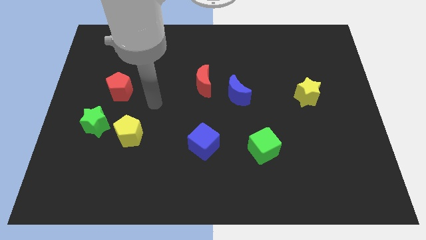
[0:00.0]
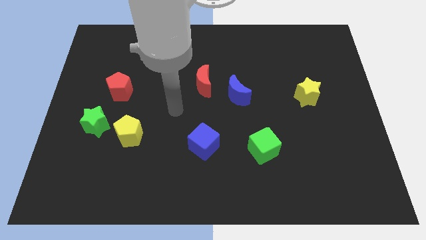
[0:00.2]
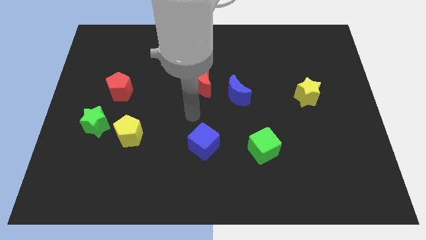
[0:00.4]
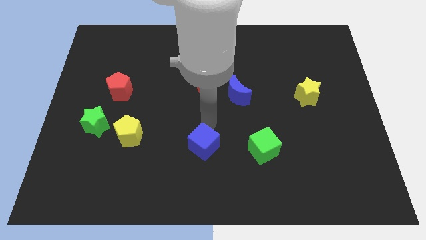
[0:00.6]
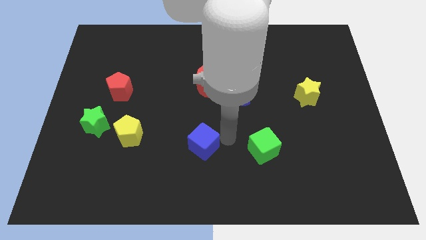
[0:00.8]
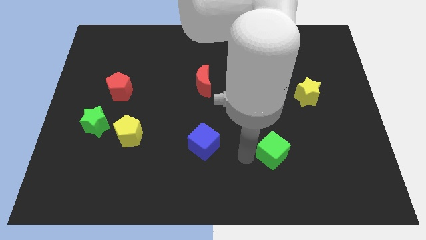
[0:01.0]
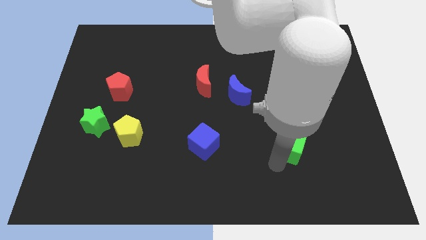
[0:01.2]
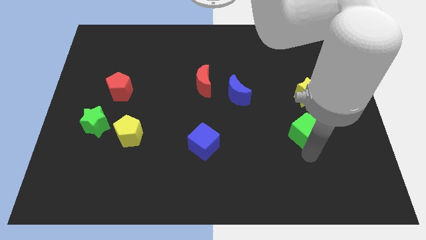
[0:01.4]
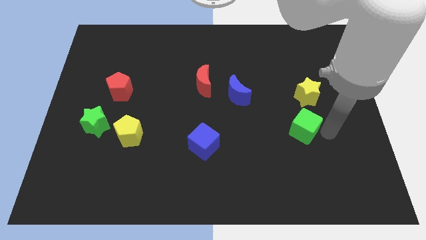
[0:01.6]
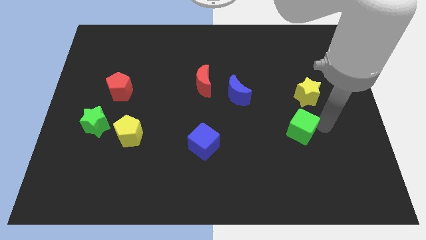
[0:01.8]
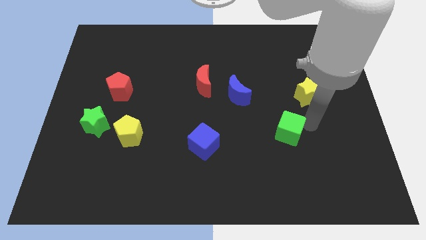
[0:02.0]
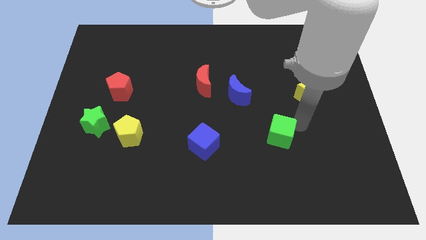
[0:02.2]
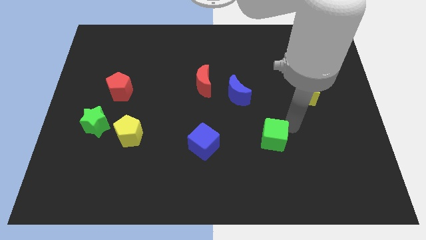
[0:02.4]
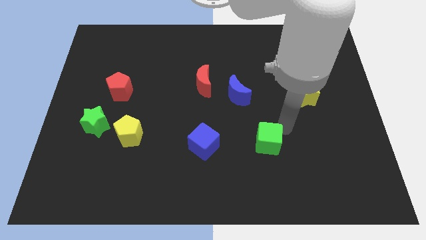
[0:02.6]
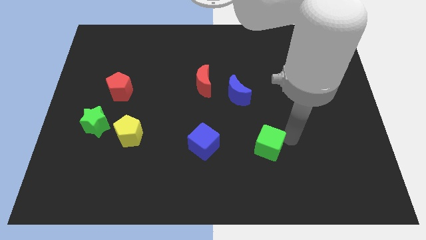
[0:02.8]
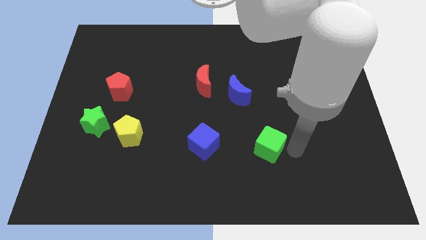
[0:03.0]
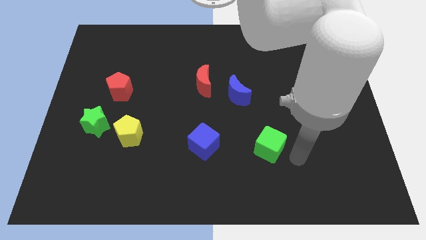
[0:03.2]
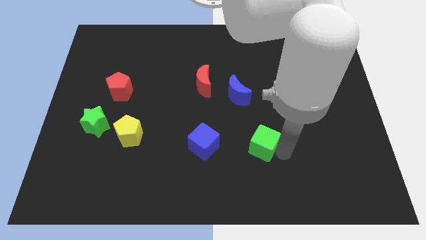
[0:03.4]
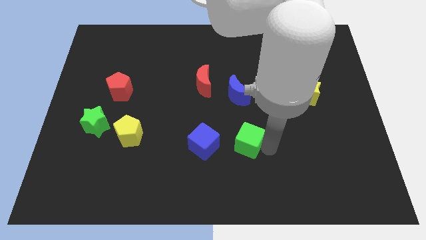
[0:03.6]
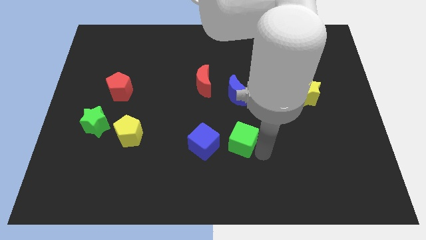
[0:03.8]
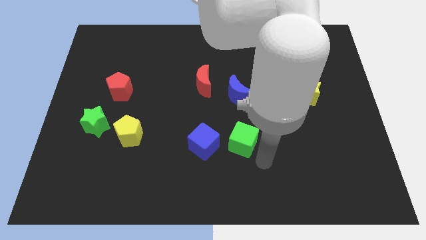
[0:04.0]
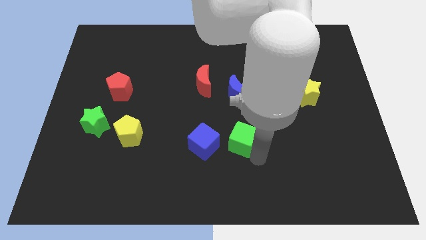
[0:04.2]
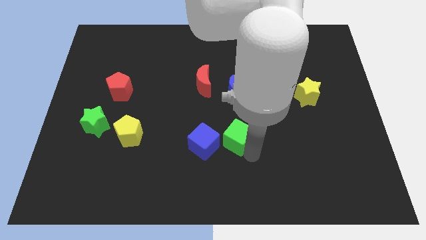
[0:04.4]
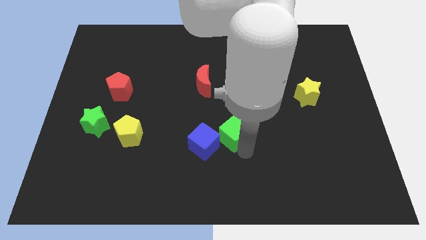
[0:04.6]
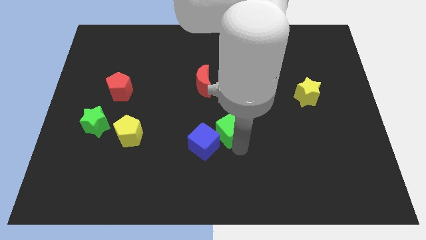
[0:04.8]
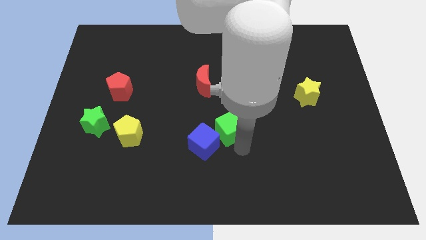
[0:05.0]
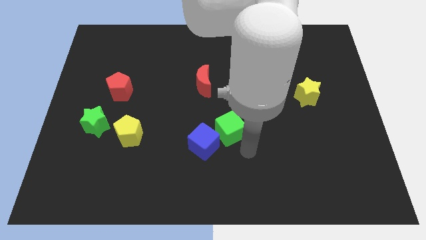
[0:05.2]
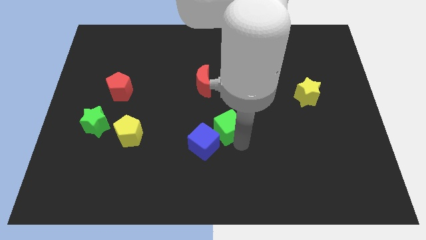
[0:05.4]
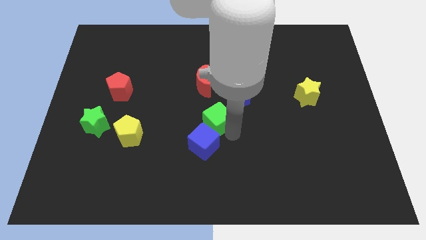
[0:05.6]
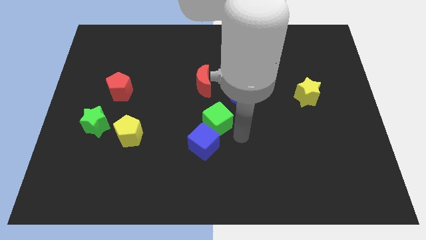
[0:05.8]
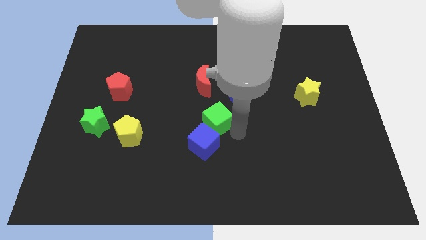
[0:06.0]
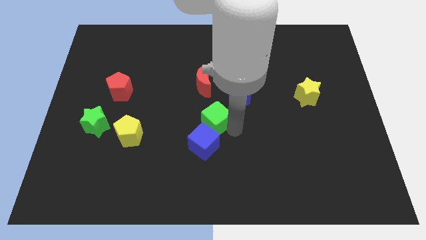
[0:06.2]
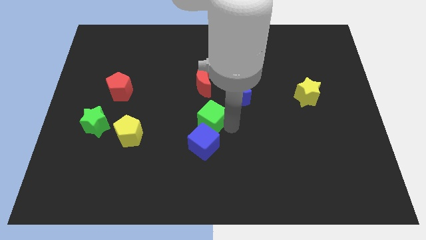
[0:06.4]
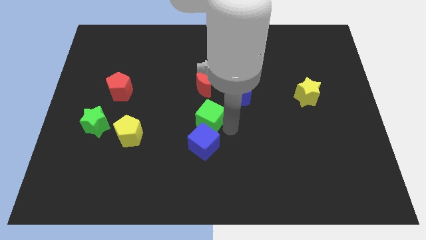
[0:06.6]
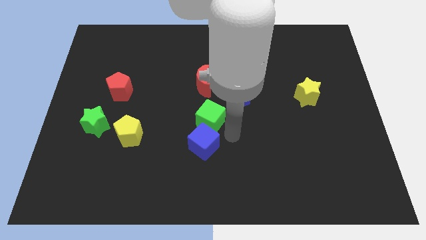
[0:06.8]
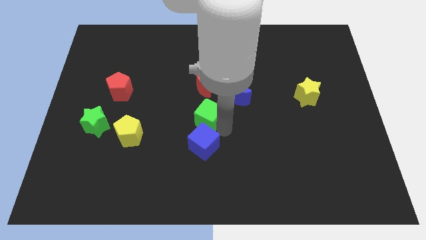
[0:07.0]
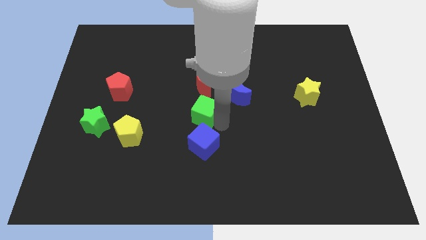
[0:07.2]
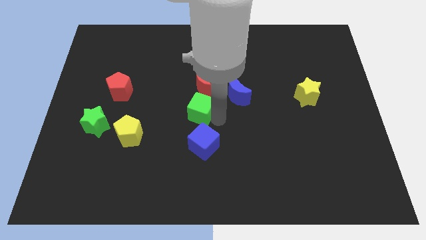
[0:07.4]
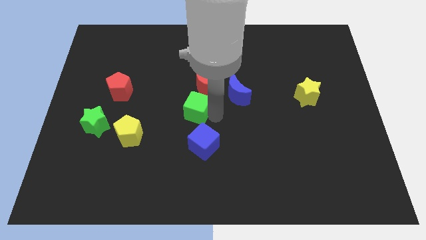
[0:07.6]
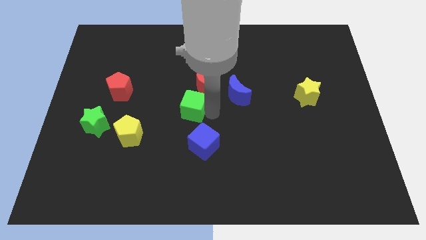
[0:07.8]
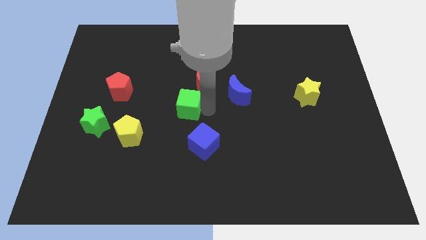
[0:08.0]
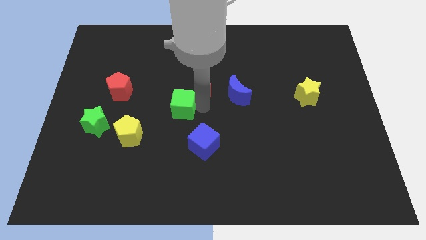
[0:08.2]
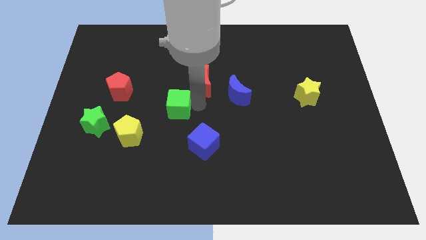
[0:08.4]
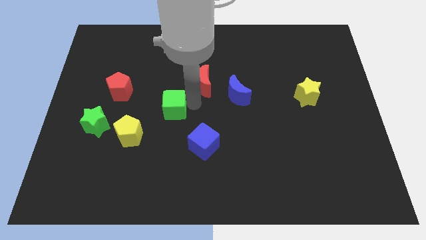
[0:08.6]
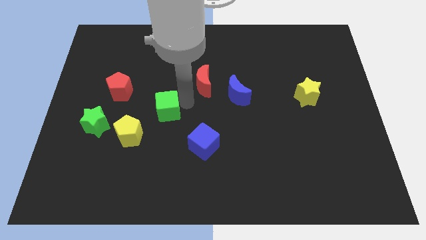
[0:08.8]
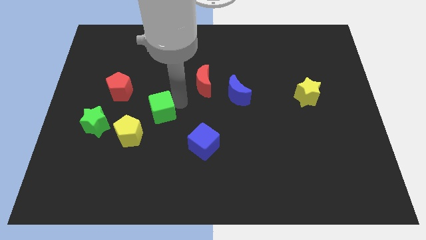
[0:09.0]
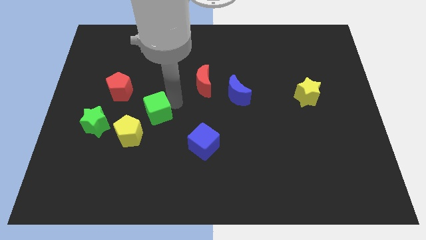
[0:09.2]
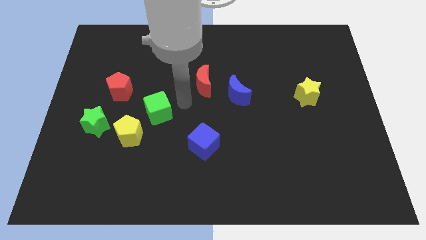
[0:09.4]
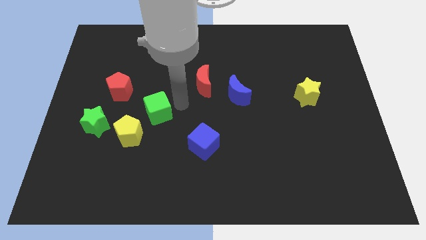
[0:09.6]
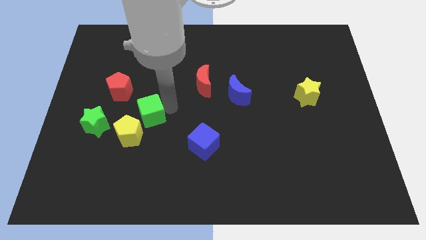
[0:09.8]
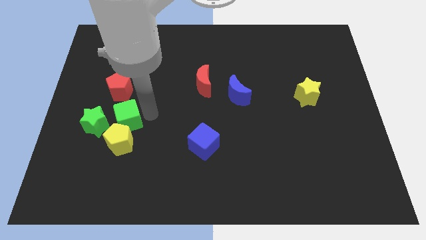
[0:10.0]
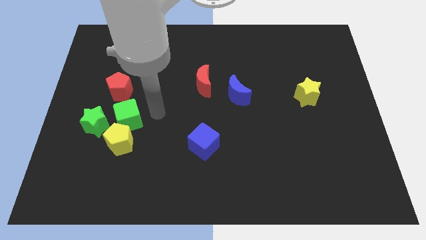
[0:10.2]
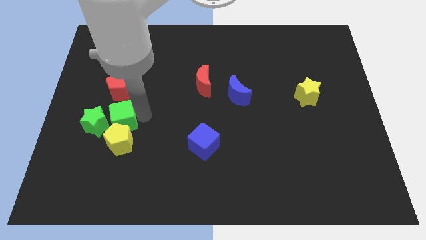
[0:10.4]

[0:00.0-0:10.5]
move the green cube to the green star

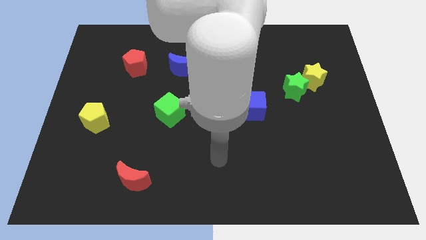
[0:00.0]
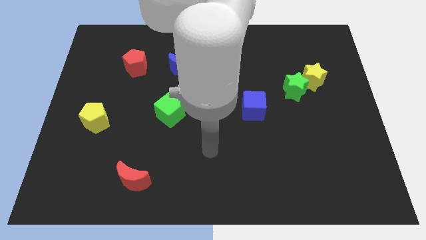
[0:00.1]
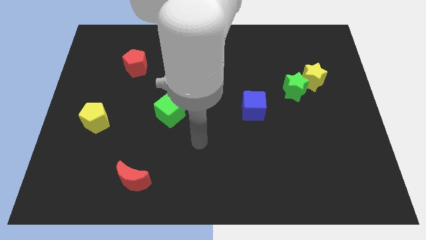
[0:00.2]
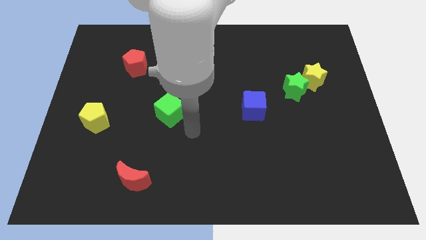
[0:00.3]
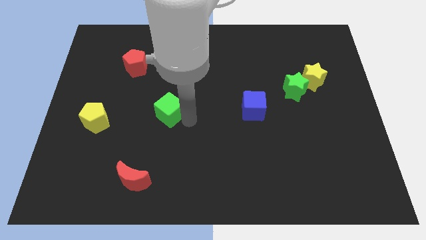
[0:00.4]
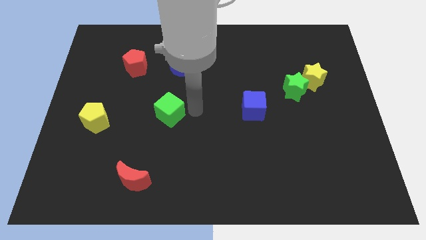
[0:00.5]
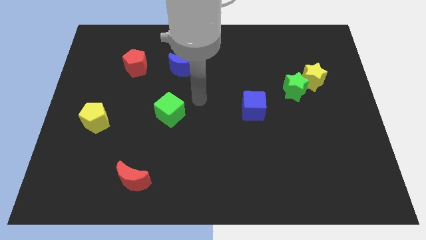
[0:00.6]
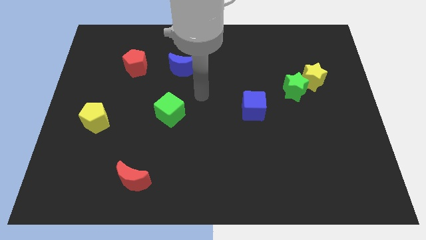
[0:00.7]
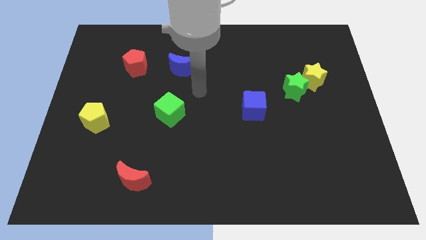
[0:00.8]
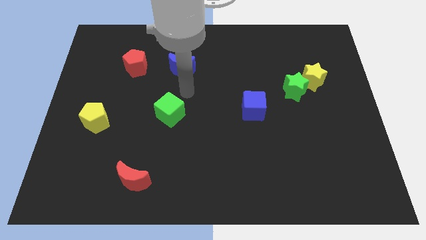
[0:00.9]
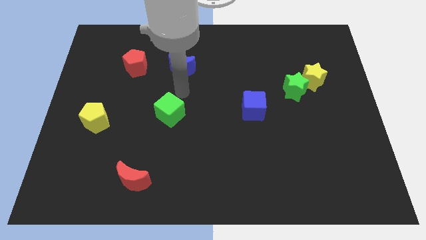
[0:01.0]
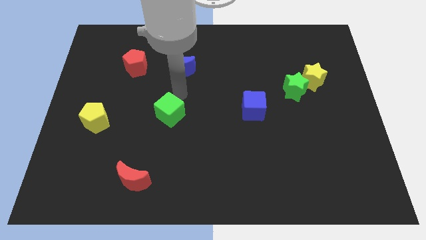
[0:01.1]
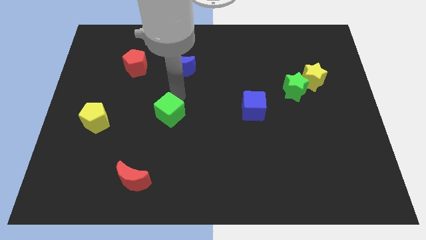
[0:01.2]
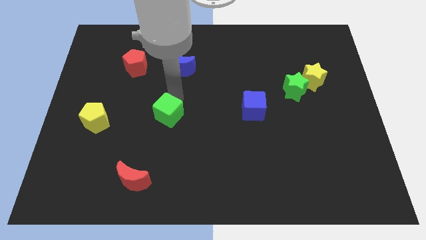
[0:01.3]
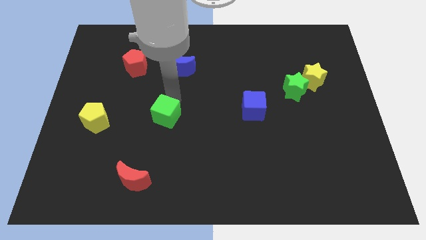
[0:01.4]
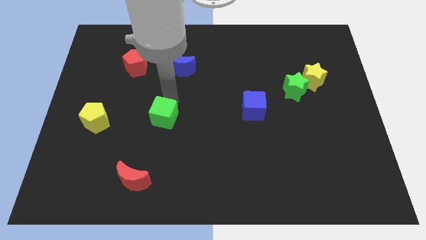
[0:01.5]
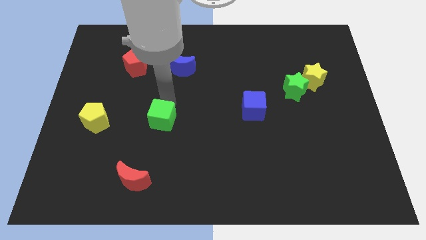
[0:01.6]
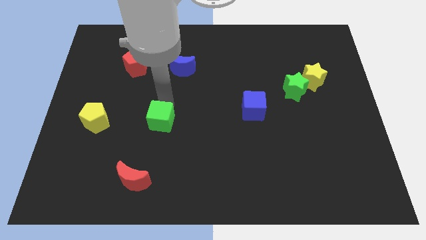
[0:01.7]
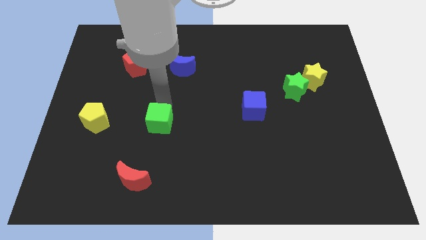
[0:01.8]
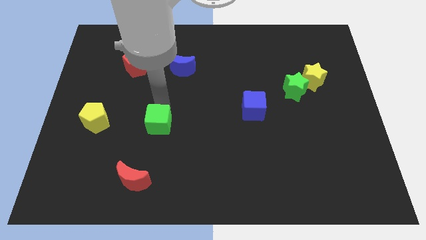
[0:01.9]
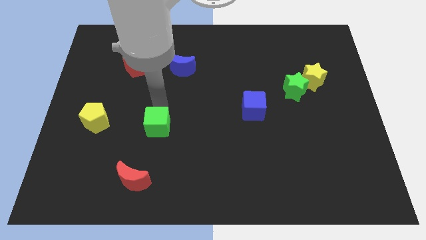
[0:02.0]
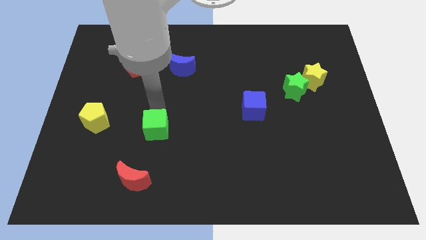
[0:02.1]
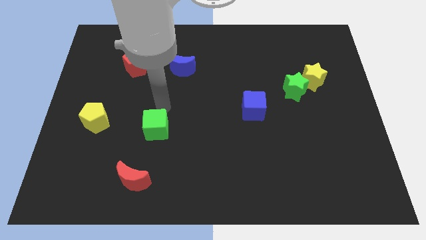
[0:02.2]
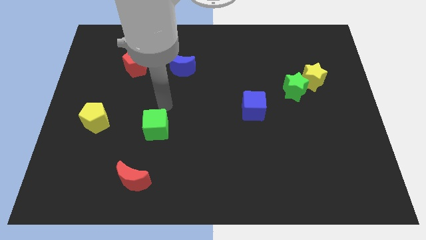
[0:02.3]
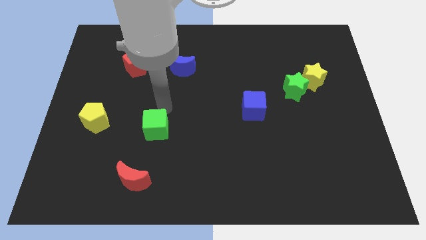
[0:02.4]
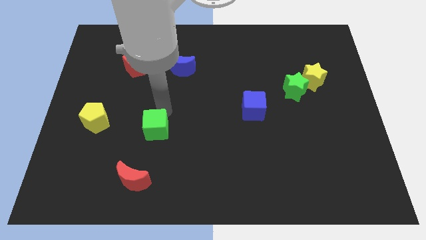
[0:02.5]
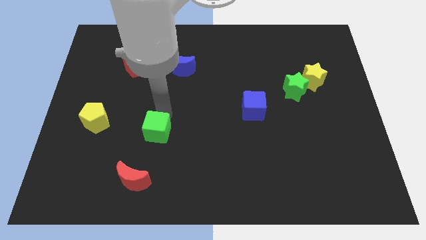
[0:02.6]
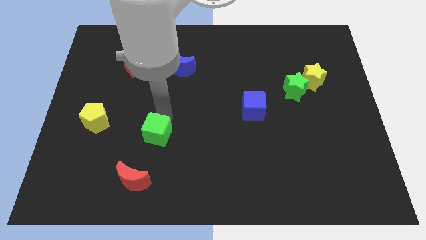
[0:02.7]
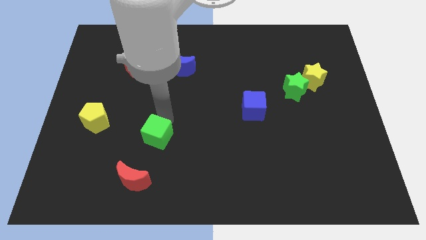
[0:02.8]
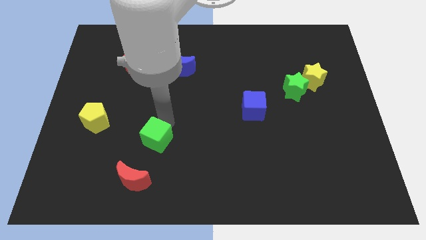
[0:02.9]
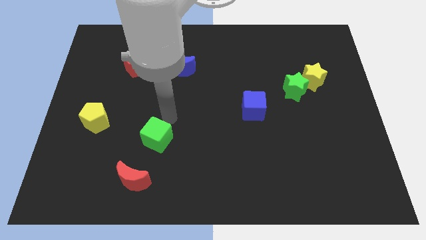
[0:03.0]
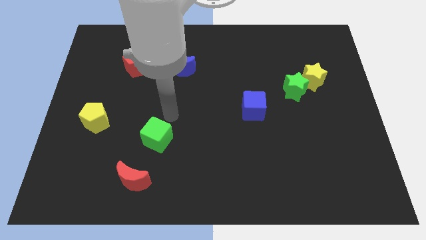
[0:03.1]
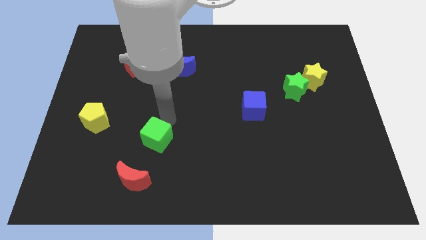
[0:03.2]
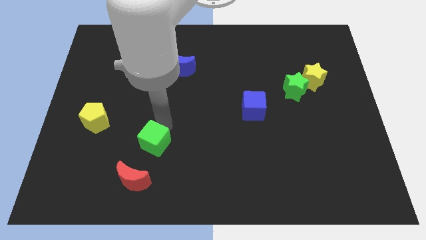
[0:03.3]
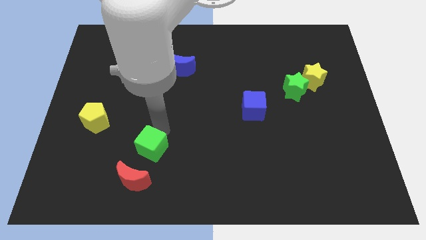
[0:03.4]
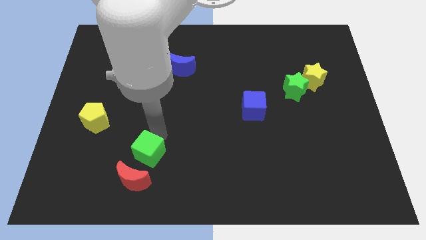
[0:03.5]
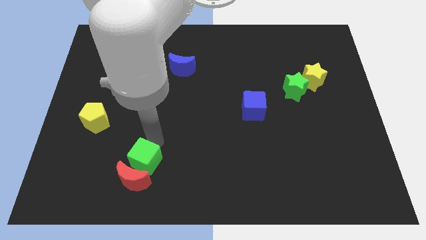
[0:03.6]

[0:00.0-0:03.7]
slide the green cube next to the red moon
